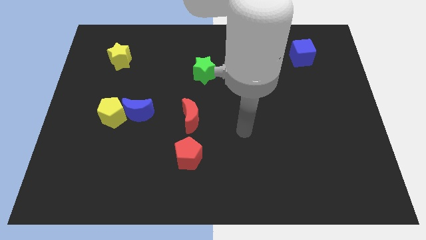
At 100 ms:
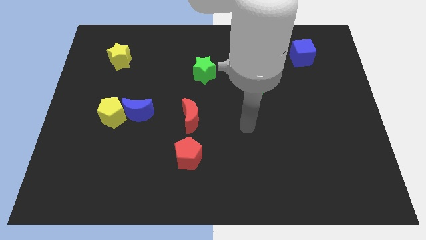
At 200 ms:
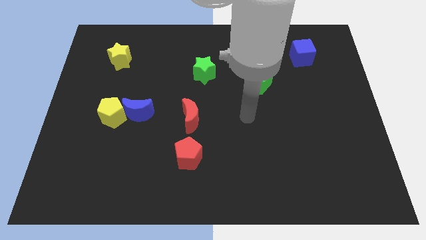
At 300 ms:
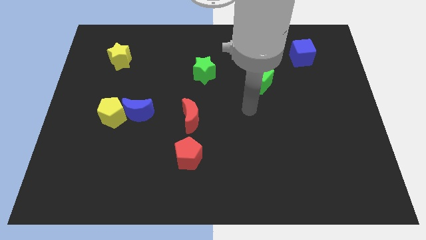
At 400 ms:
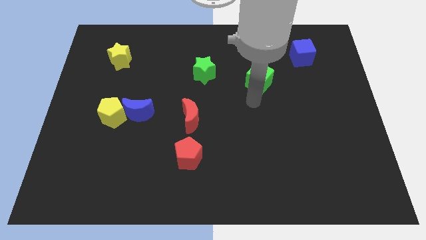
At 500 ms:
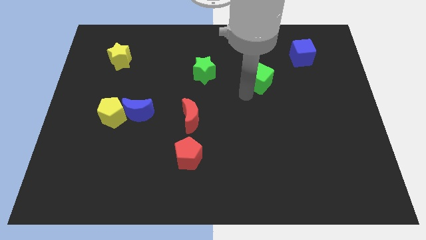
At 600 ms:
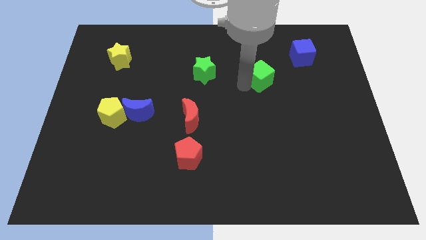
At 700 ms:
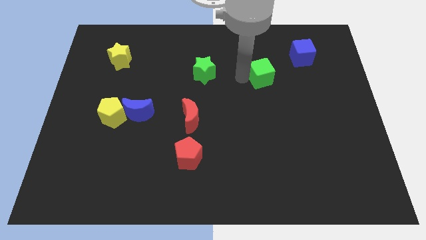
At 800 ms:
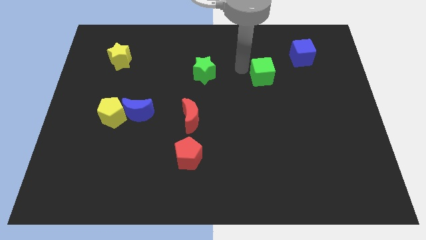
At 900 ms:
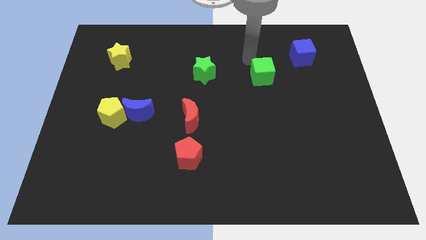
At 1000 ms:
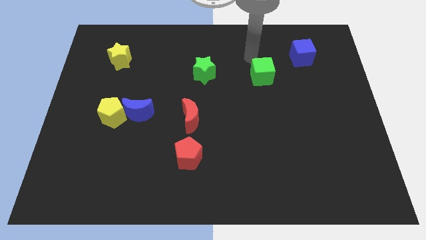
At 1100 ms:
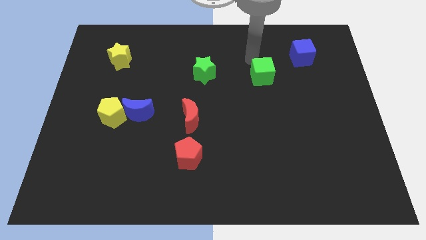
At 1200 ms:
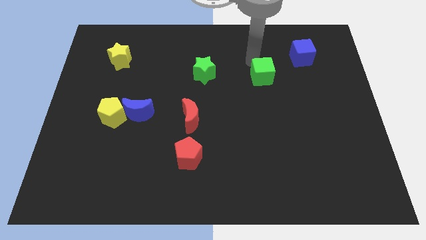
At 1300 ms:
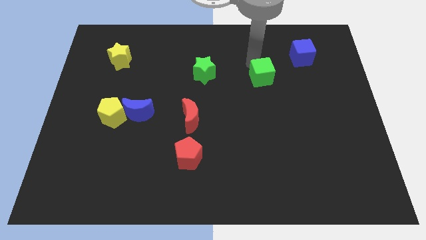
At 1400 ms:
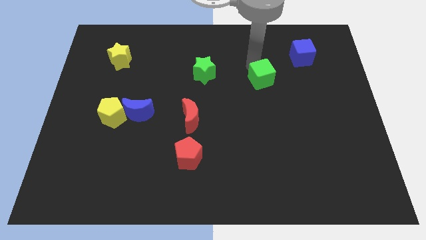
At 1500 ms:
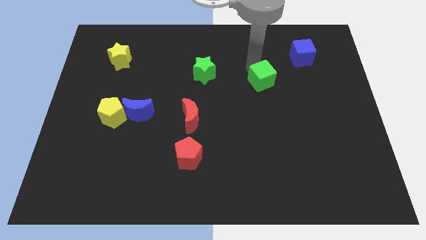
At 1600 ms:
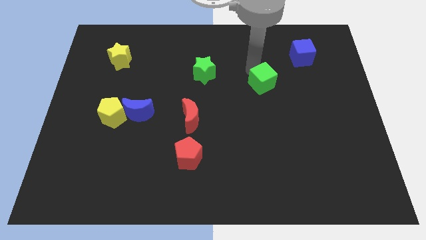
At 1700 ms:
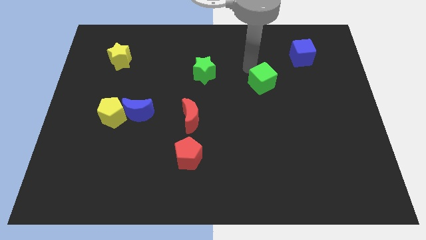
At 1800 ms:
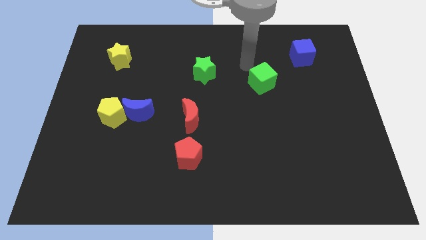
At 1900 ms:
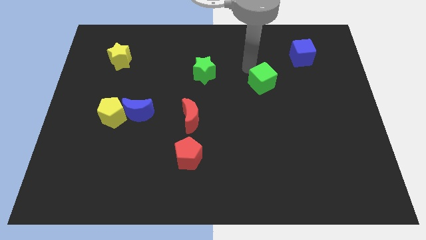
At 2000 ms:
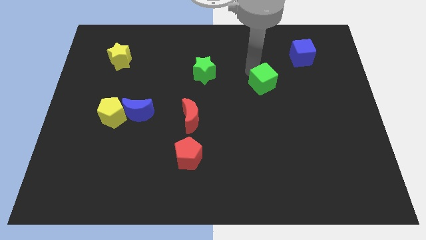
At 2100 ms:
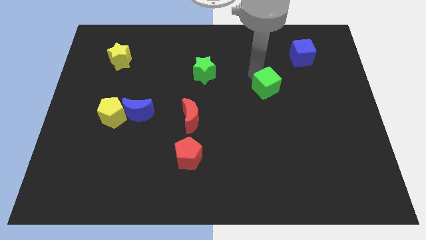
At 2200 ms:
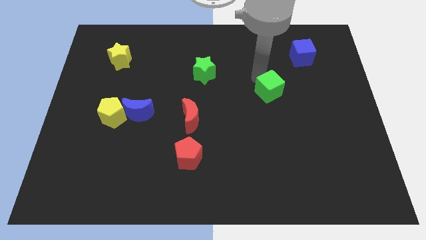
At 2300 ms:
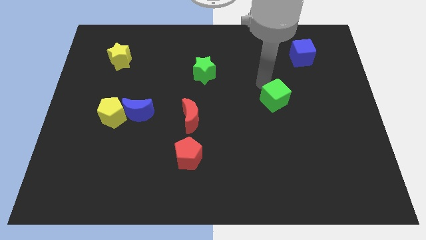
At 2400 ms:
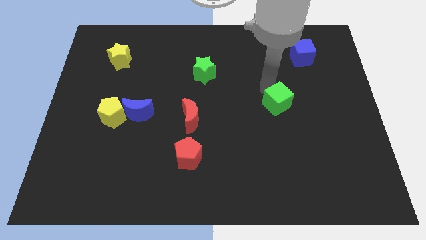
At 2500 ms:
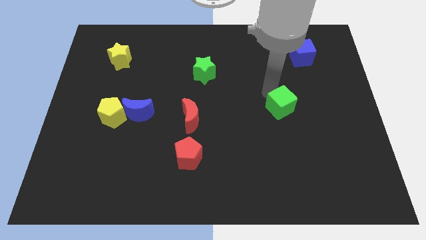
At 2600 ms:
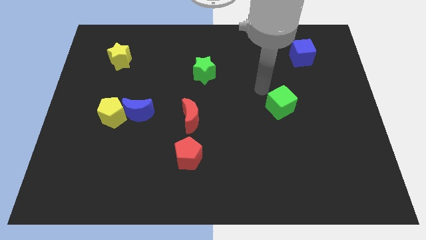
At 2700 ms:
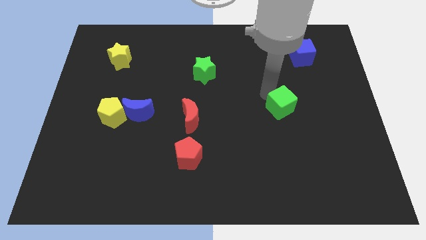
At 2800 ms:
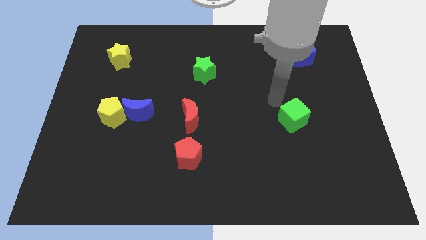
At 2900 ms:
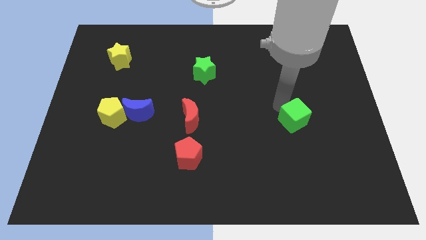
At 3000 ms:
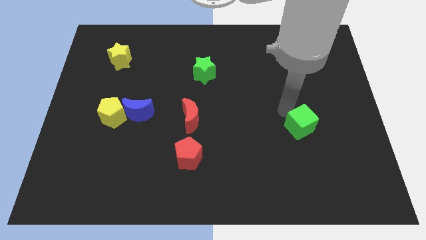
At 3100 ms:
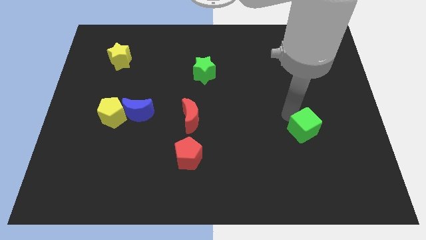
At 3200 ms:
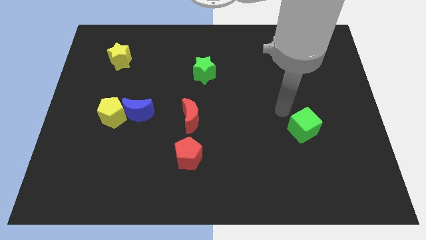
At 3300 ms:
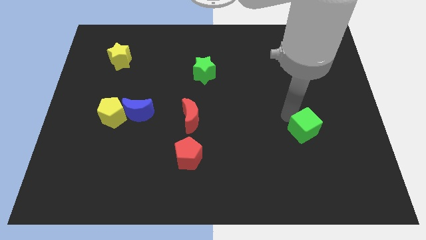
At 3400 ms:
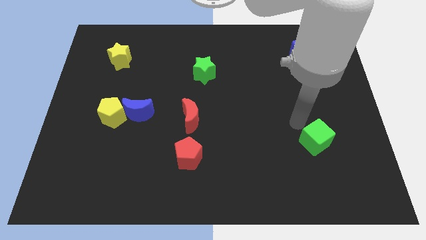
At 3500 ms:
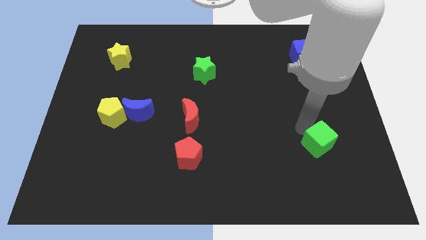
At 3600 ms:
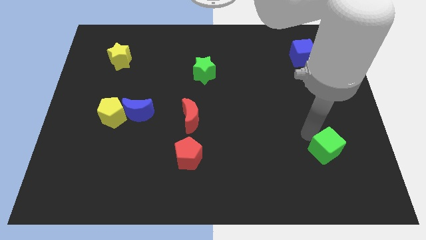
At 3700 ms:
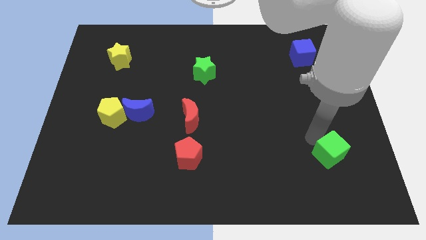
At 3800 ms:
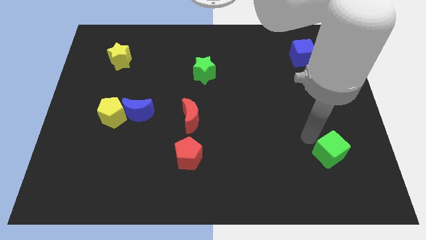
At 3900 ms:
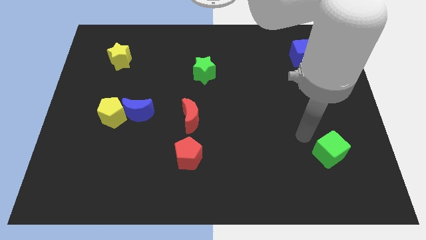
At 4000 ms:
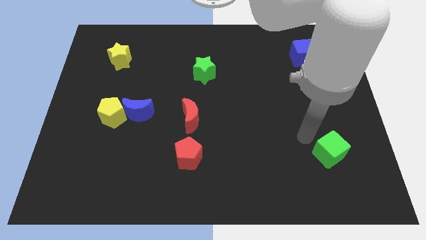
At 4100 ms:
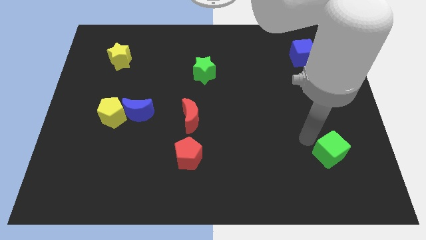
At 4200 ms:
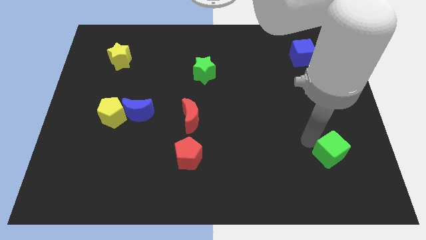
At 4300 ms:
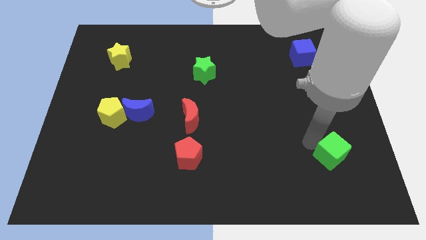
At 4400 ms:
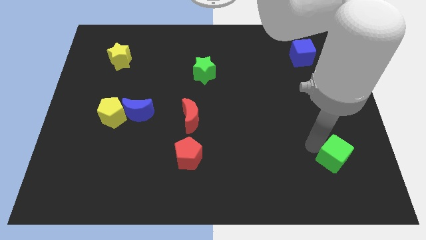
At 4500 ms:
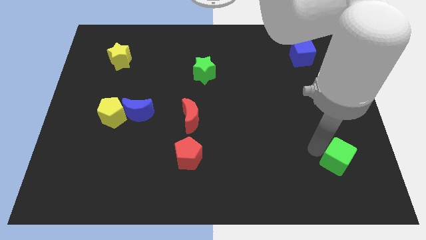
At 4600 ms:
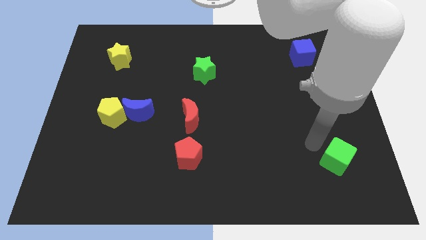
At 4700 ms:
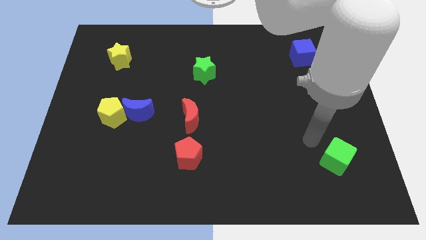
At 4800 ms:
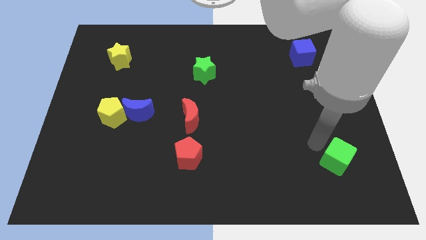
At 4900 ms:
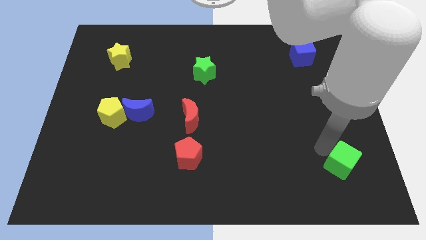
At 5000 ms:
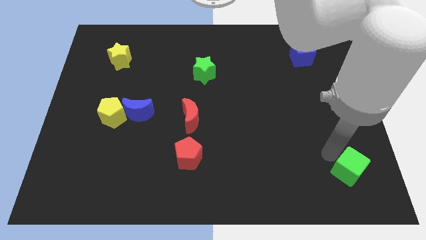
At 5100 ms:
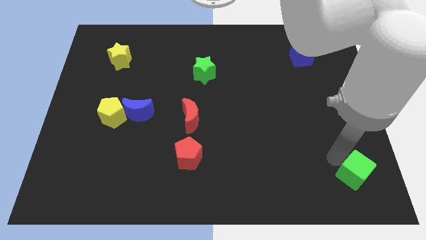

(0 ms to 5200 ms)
move the green cube to the lower right corner

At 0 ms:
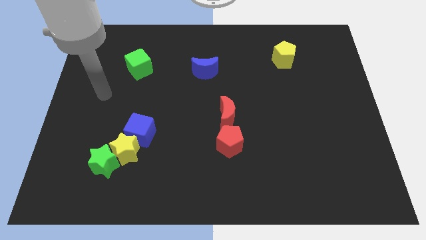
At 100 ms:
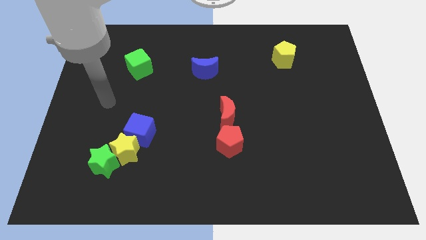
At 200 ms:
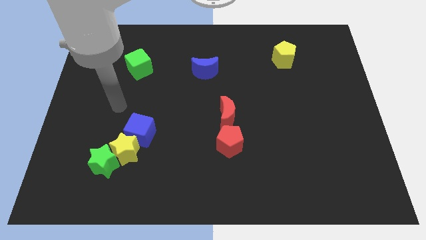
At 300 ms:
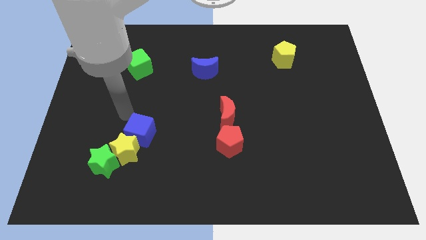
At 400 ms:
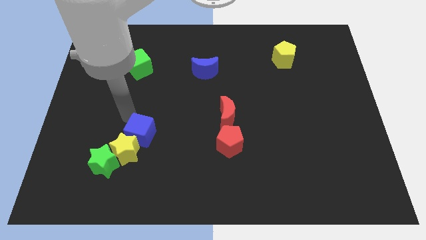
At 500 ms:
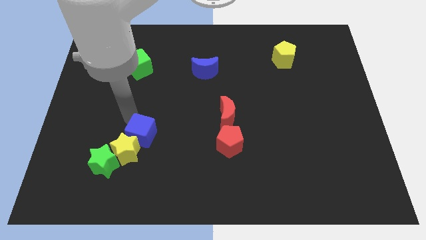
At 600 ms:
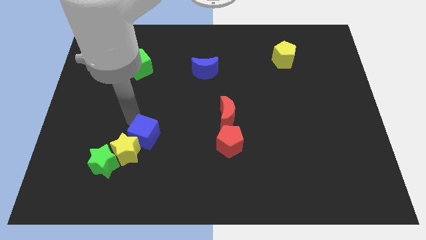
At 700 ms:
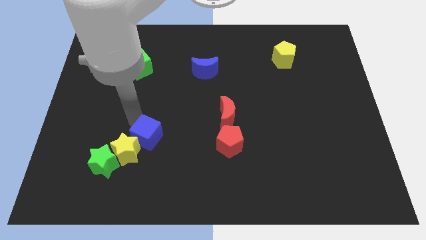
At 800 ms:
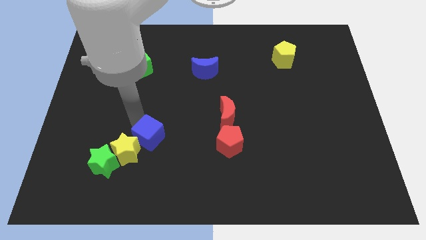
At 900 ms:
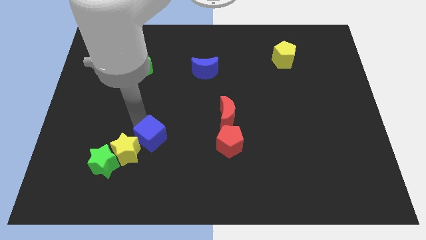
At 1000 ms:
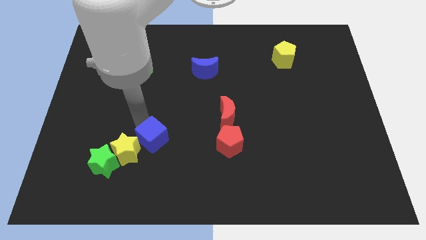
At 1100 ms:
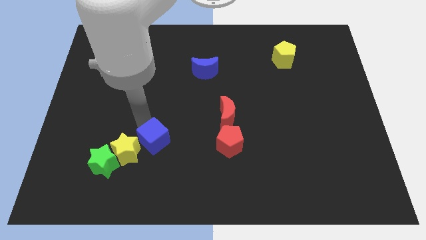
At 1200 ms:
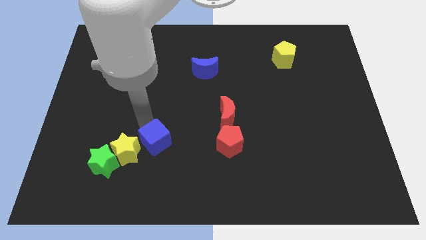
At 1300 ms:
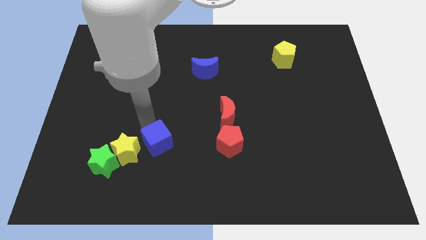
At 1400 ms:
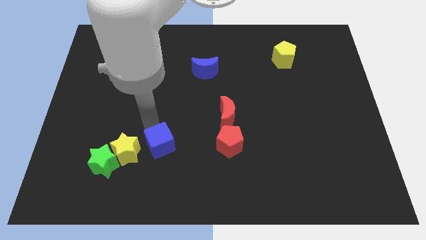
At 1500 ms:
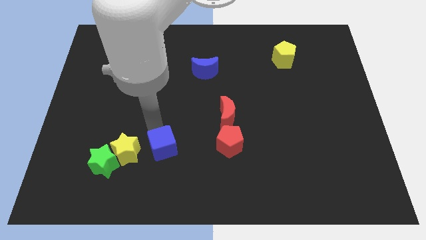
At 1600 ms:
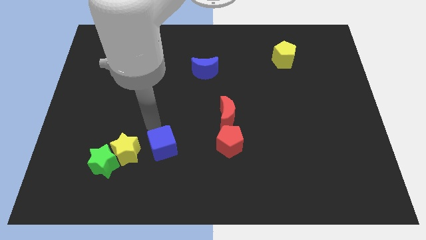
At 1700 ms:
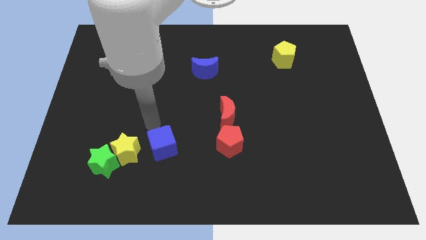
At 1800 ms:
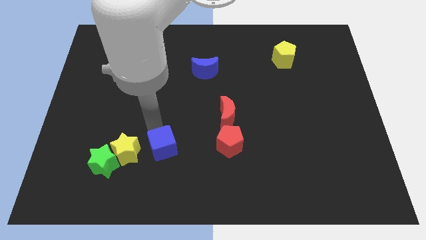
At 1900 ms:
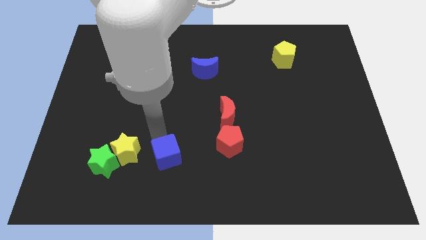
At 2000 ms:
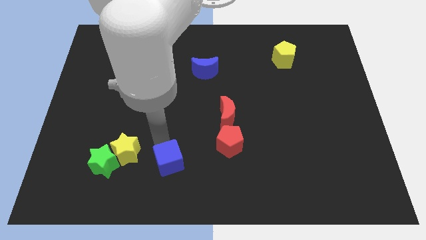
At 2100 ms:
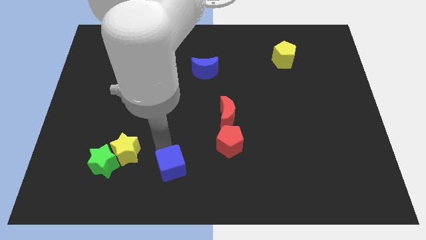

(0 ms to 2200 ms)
move the blue cube to the bottom side
